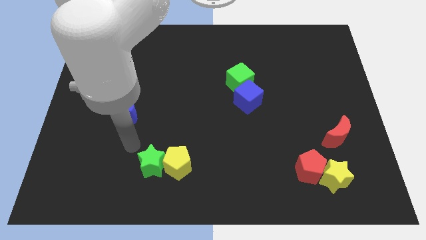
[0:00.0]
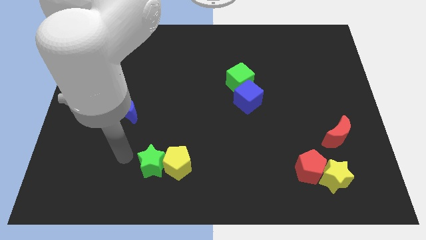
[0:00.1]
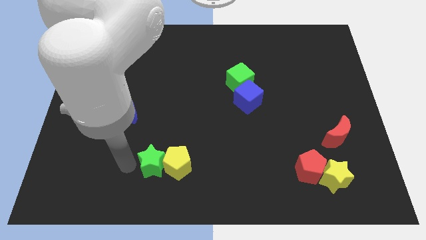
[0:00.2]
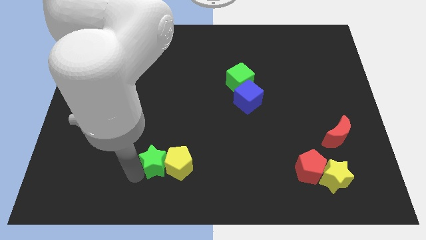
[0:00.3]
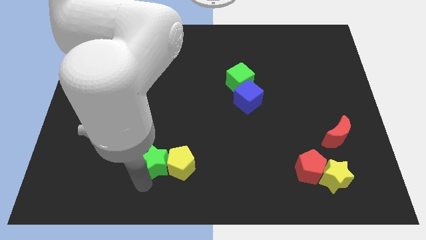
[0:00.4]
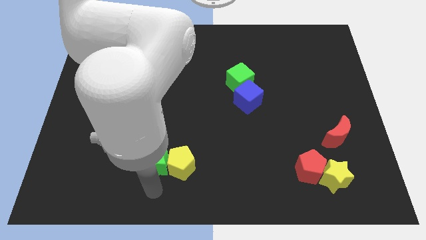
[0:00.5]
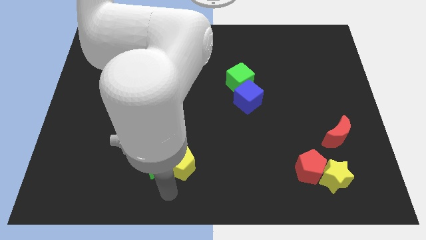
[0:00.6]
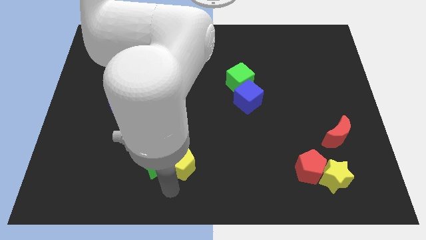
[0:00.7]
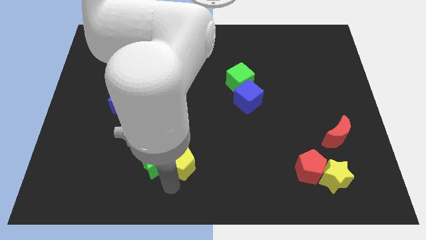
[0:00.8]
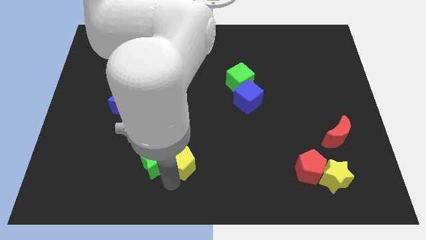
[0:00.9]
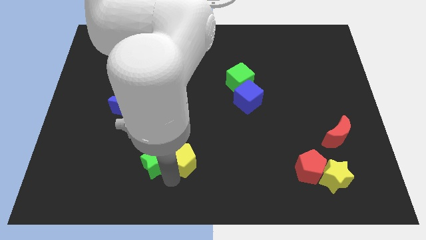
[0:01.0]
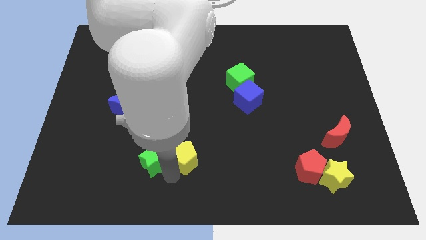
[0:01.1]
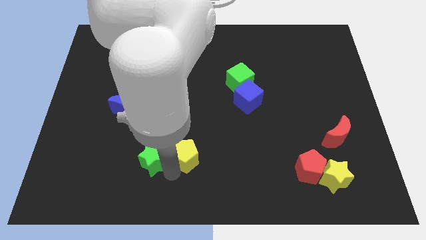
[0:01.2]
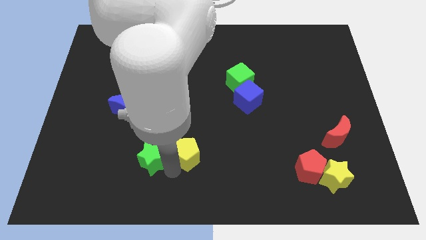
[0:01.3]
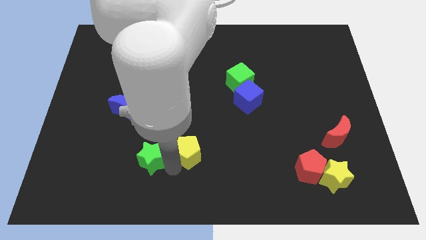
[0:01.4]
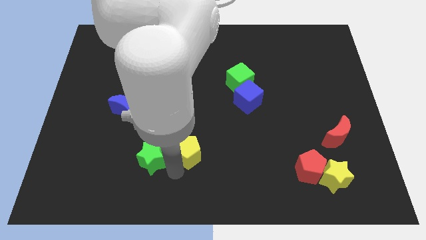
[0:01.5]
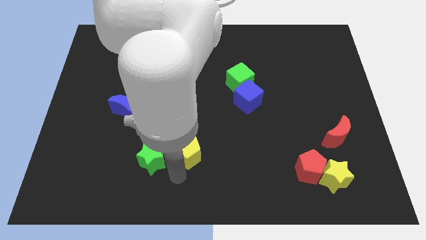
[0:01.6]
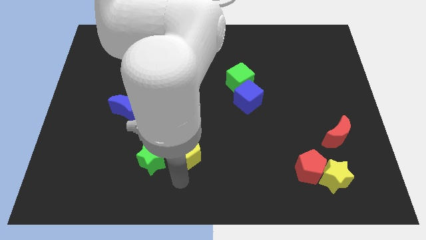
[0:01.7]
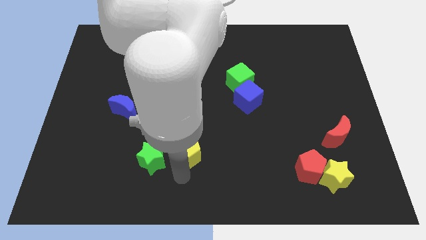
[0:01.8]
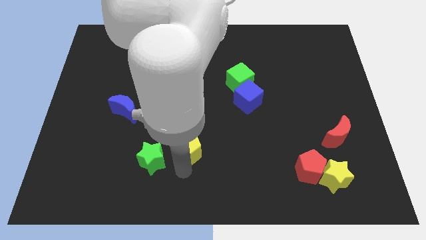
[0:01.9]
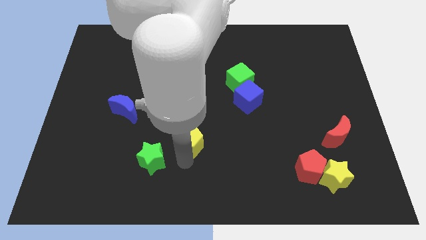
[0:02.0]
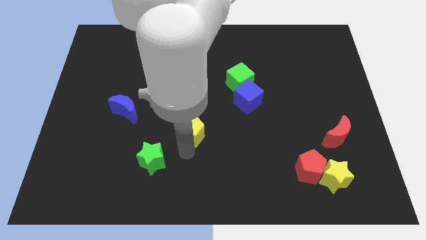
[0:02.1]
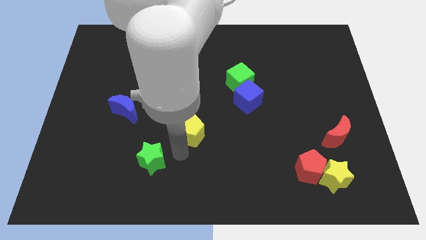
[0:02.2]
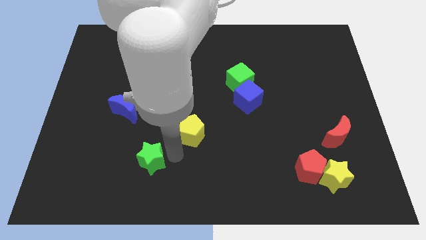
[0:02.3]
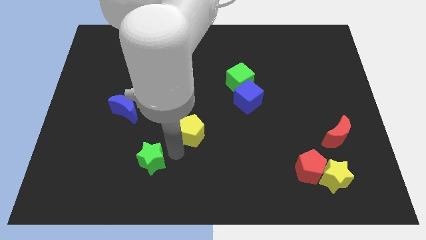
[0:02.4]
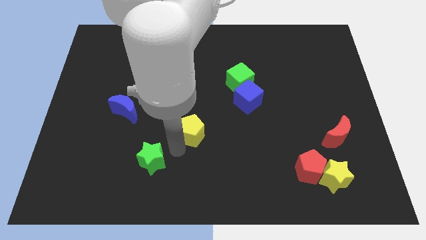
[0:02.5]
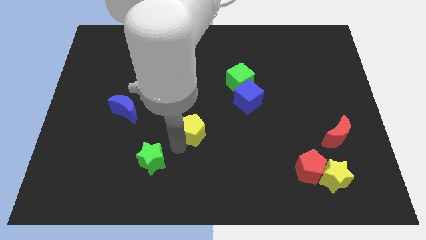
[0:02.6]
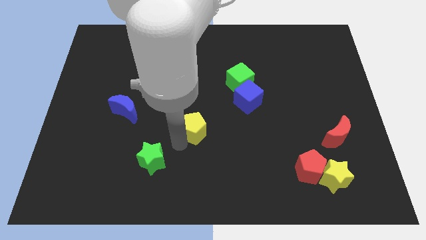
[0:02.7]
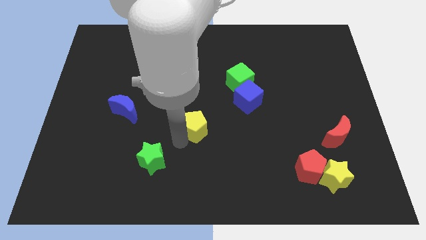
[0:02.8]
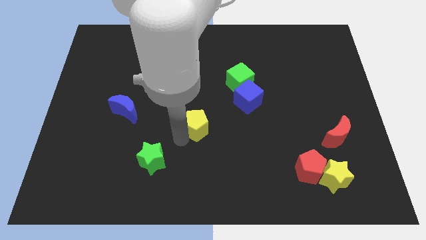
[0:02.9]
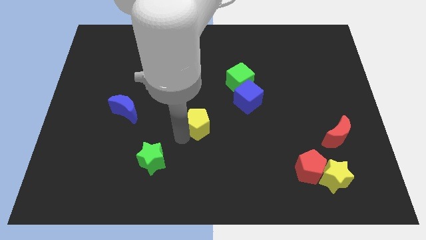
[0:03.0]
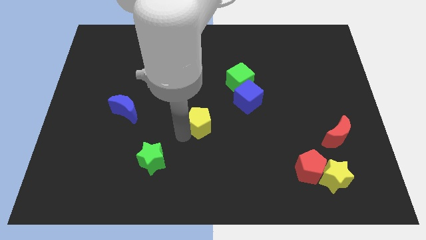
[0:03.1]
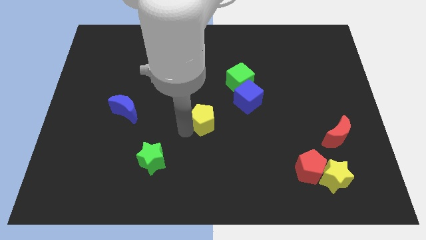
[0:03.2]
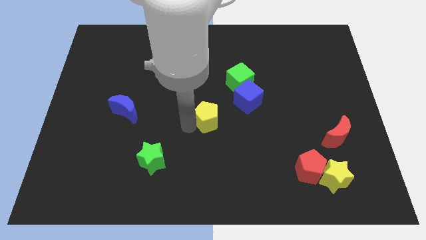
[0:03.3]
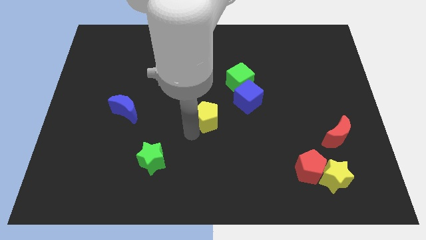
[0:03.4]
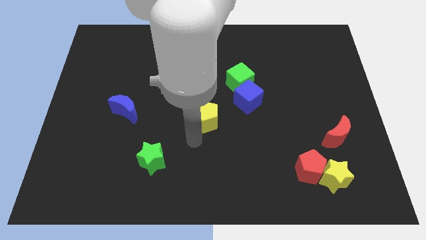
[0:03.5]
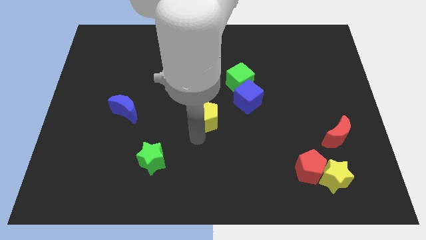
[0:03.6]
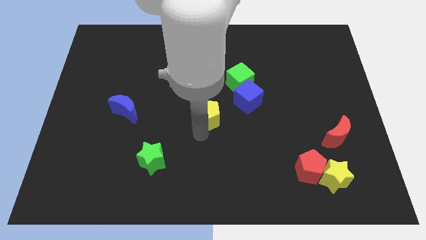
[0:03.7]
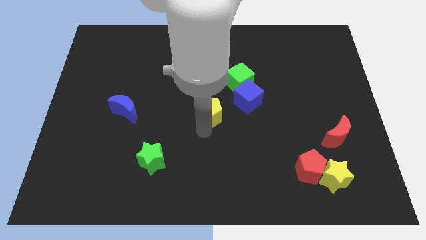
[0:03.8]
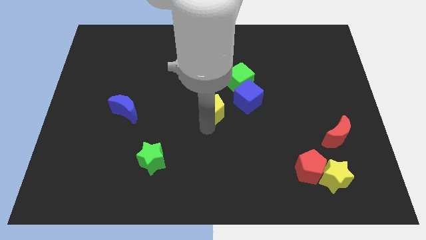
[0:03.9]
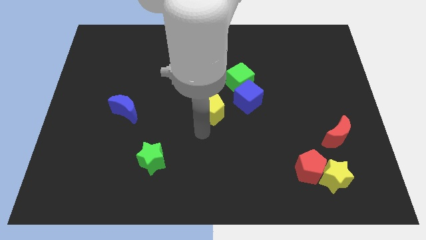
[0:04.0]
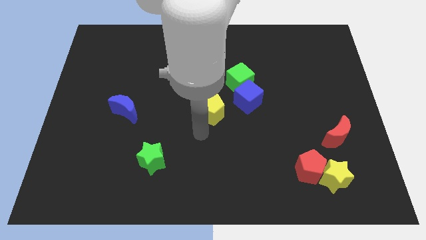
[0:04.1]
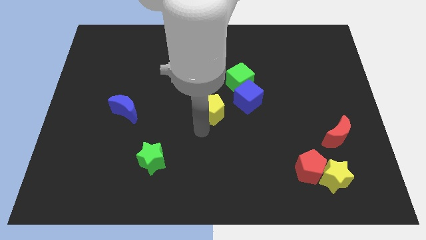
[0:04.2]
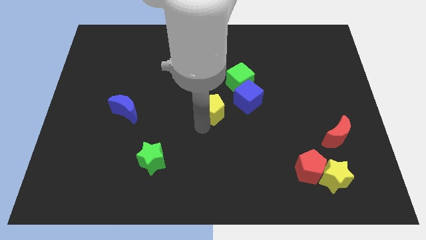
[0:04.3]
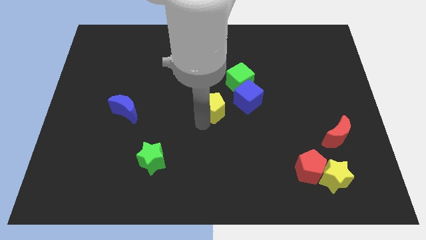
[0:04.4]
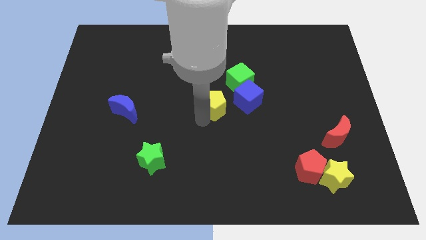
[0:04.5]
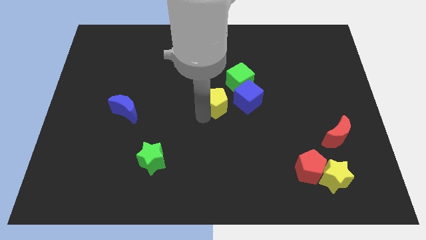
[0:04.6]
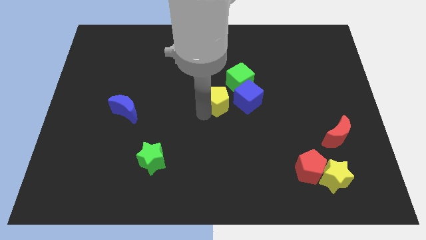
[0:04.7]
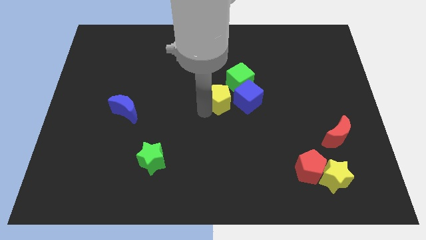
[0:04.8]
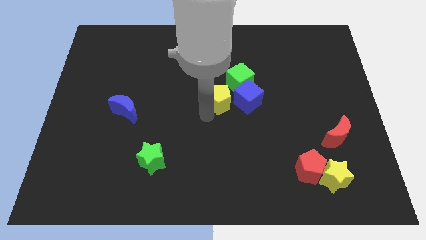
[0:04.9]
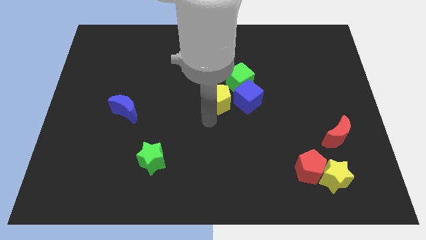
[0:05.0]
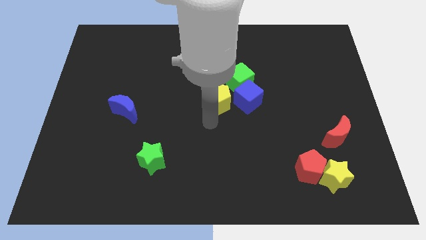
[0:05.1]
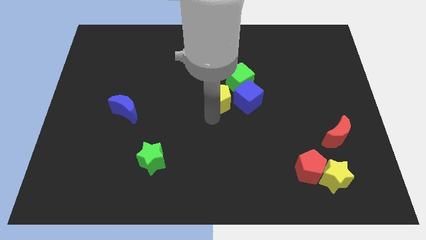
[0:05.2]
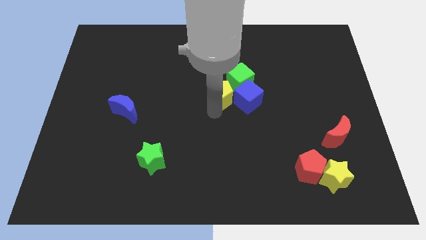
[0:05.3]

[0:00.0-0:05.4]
move the yellow pentagon to the top left side of the blue cube

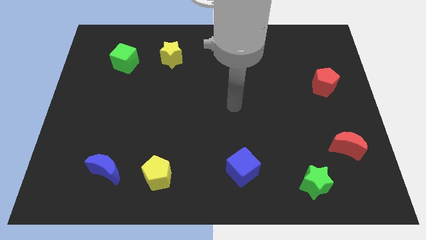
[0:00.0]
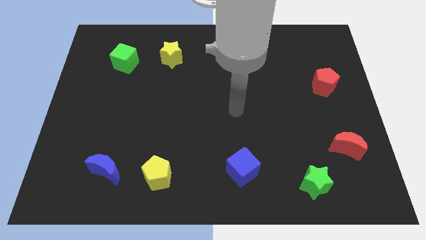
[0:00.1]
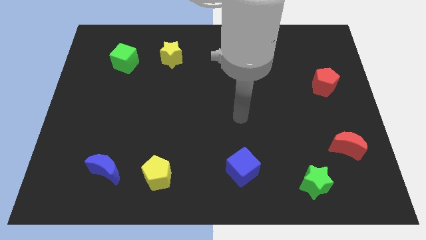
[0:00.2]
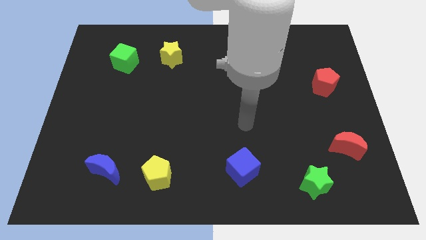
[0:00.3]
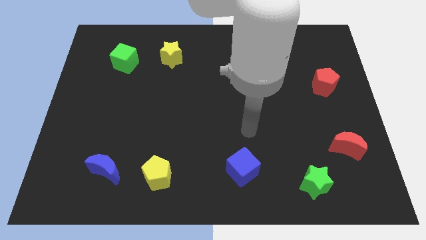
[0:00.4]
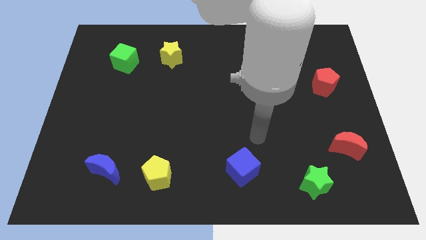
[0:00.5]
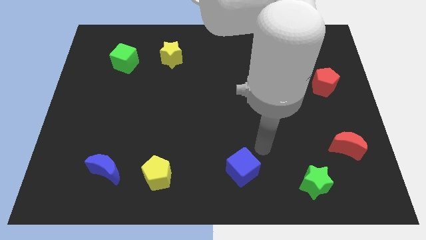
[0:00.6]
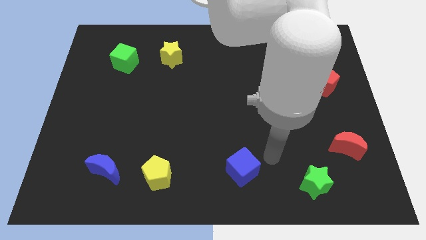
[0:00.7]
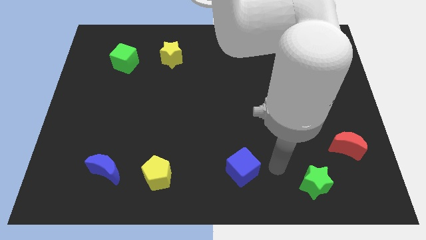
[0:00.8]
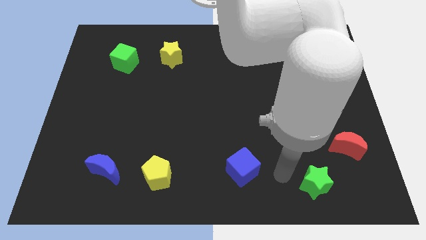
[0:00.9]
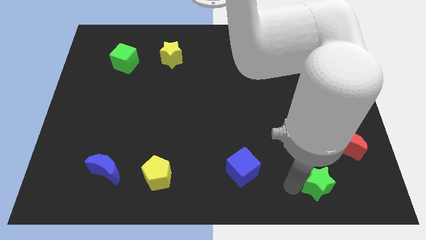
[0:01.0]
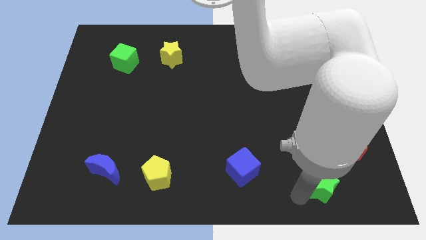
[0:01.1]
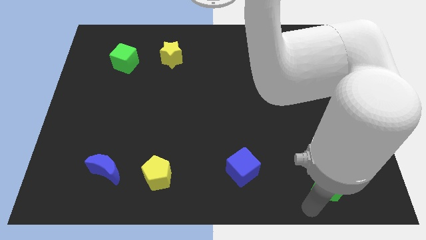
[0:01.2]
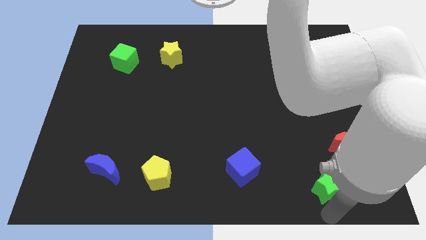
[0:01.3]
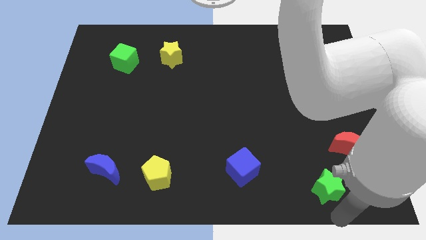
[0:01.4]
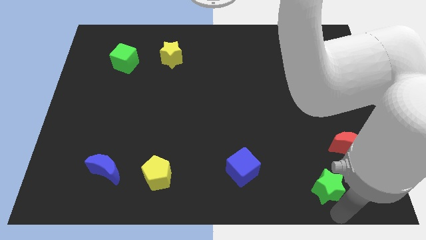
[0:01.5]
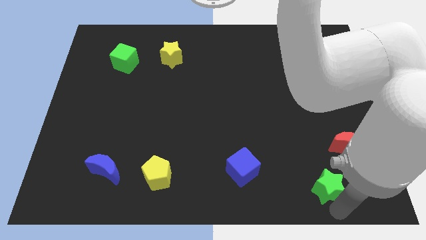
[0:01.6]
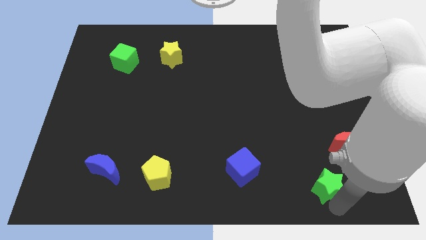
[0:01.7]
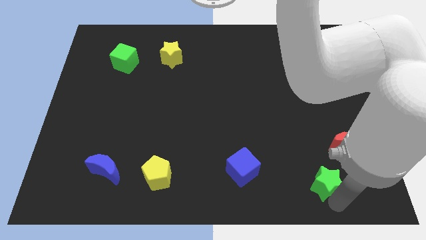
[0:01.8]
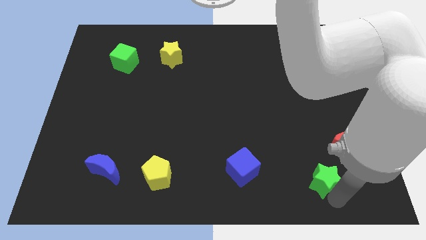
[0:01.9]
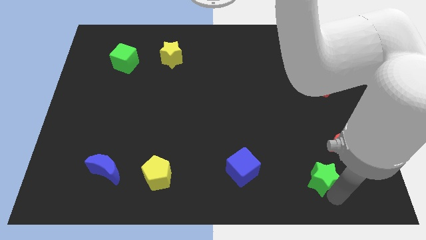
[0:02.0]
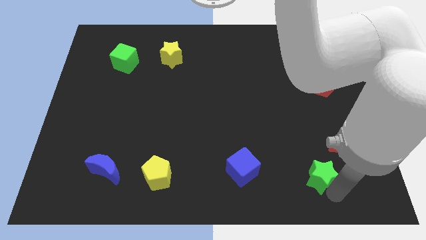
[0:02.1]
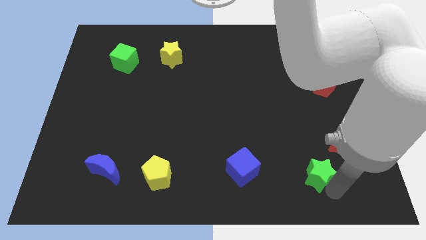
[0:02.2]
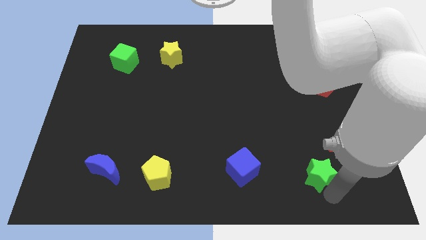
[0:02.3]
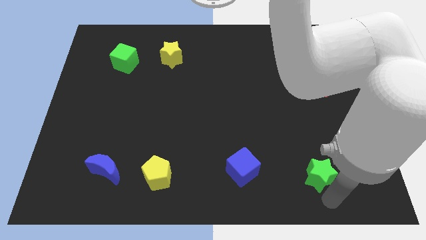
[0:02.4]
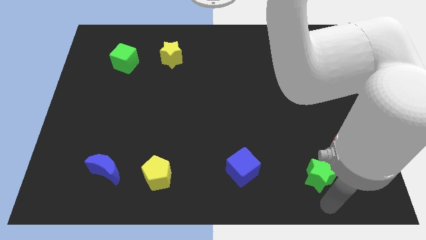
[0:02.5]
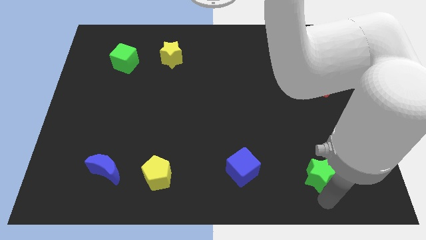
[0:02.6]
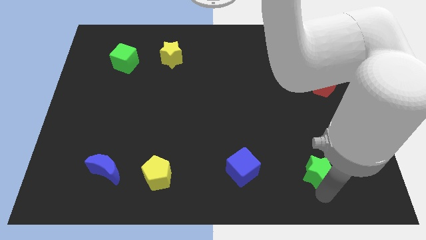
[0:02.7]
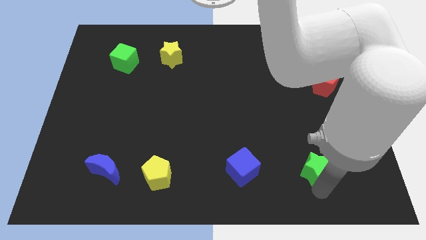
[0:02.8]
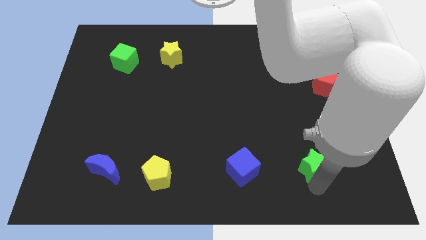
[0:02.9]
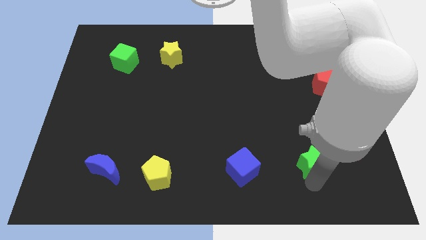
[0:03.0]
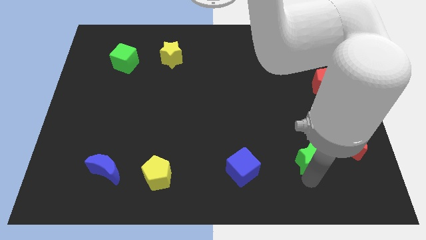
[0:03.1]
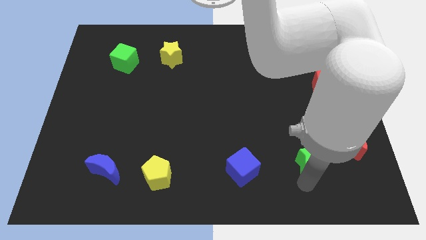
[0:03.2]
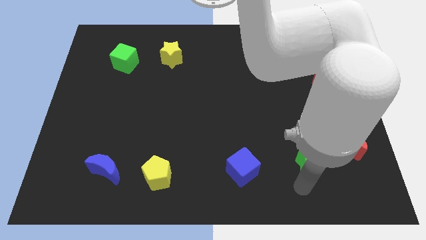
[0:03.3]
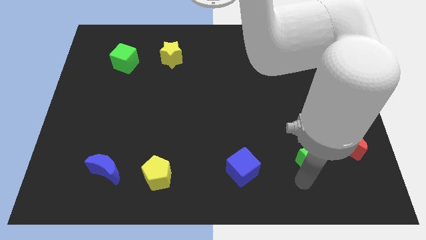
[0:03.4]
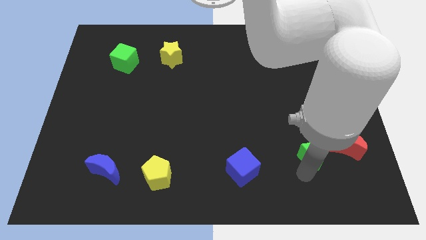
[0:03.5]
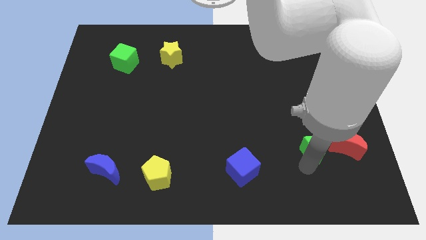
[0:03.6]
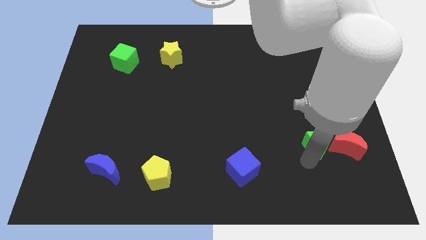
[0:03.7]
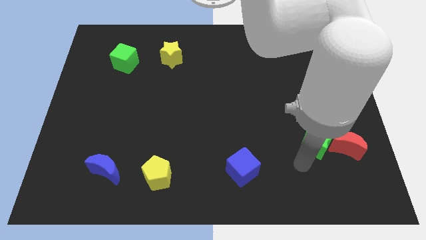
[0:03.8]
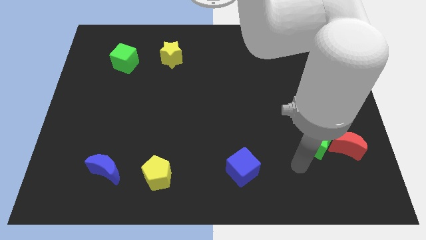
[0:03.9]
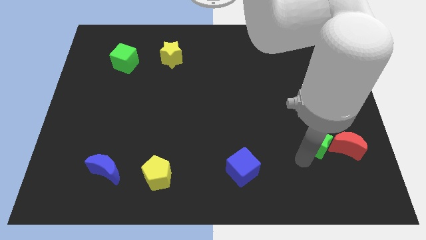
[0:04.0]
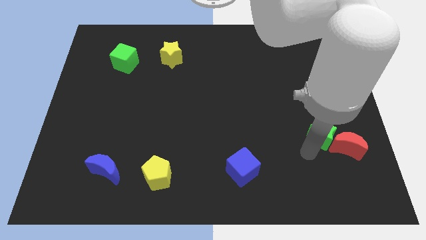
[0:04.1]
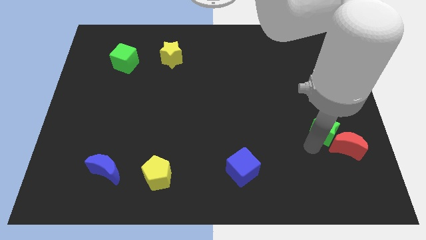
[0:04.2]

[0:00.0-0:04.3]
put the green star to the bottom of the red pentagon
